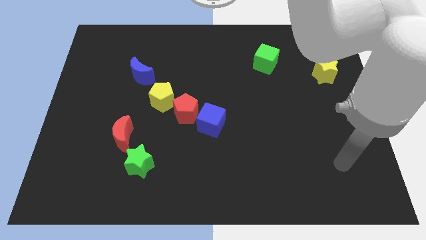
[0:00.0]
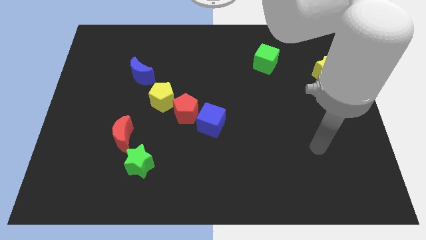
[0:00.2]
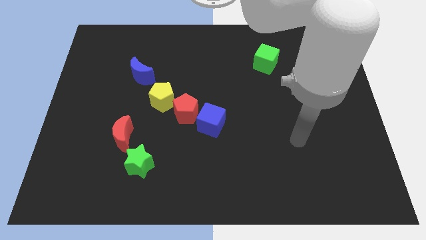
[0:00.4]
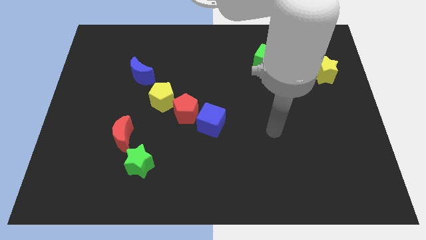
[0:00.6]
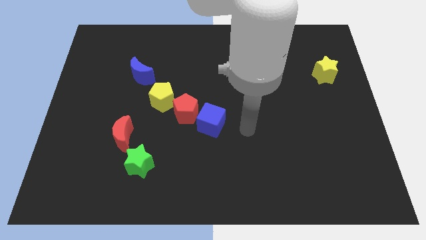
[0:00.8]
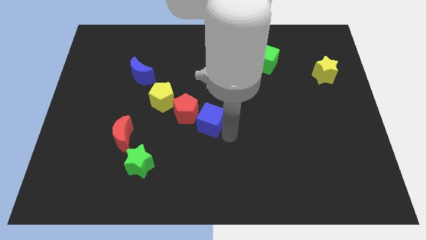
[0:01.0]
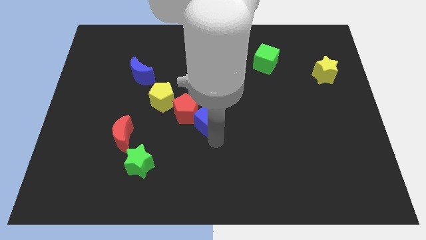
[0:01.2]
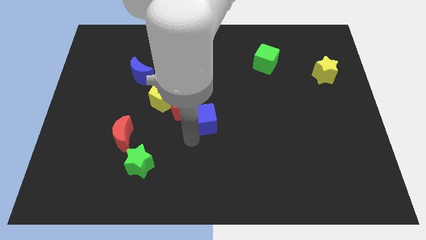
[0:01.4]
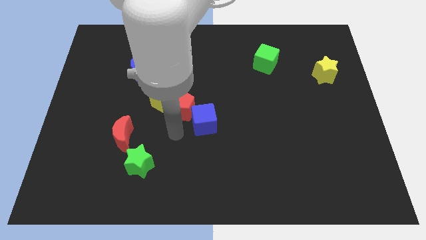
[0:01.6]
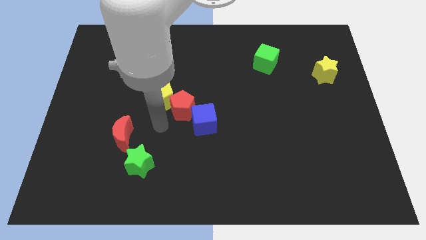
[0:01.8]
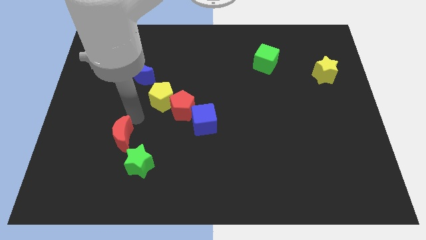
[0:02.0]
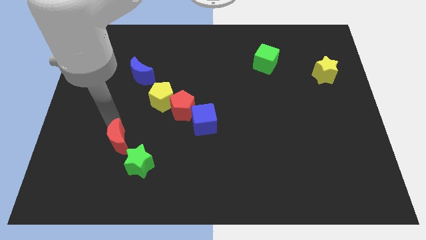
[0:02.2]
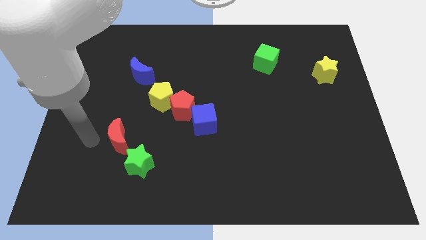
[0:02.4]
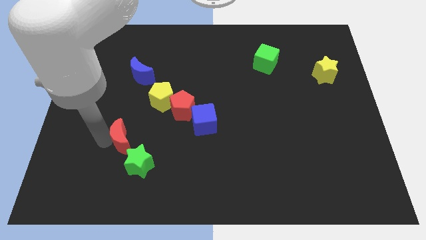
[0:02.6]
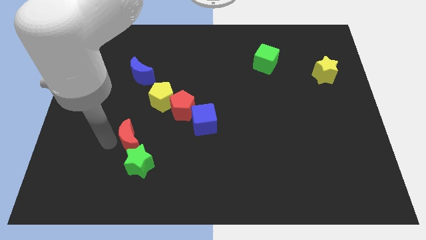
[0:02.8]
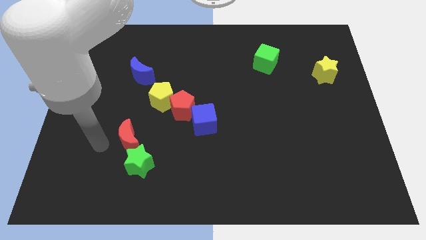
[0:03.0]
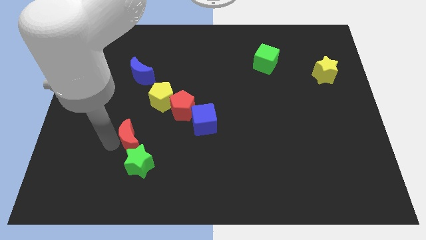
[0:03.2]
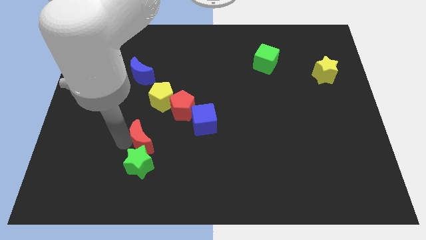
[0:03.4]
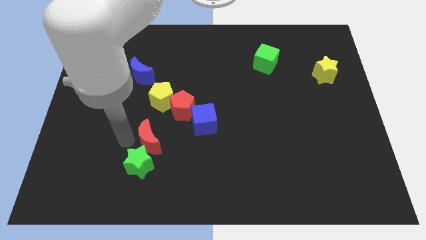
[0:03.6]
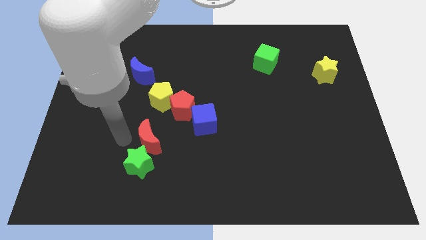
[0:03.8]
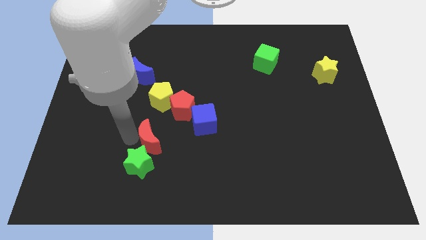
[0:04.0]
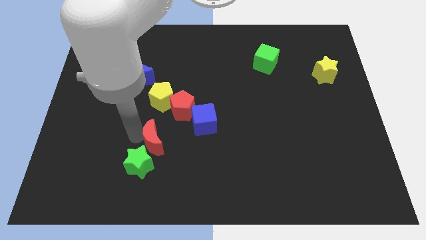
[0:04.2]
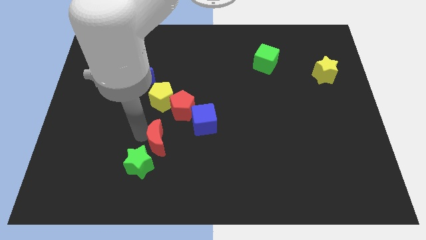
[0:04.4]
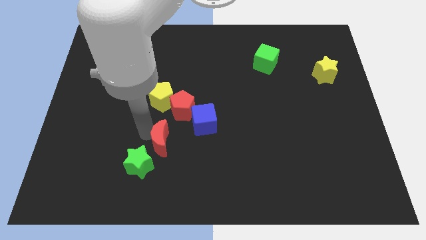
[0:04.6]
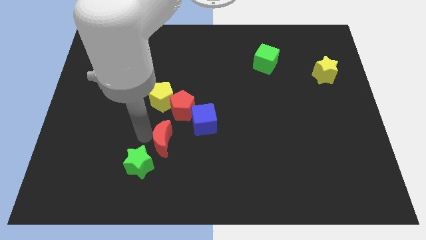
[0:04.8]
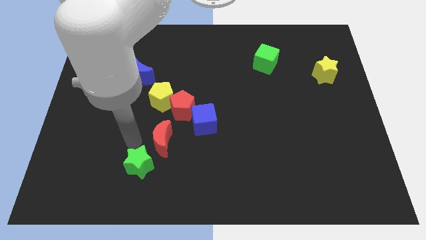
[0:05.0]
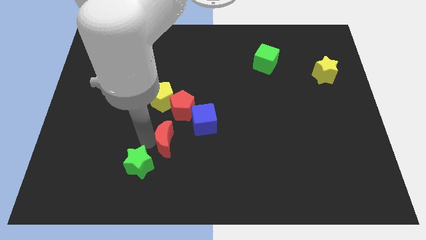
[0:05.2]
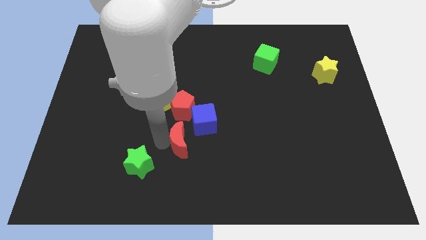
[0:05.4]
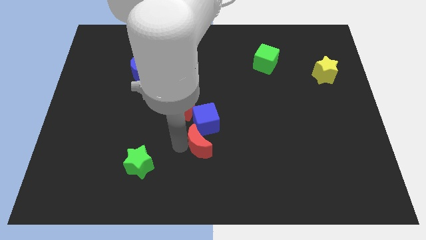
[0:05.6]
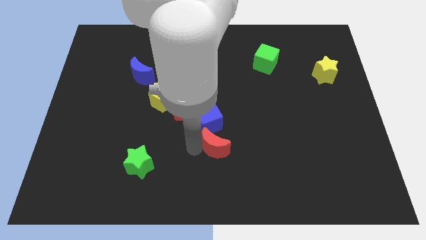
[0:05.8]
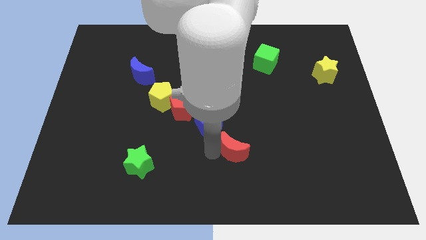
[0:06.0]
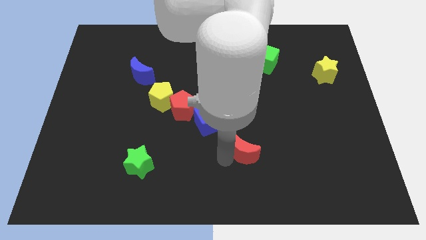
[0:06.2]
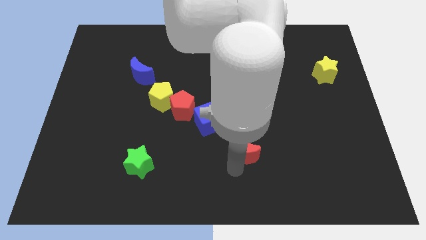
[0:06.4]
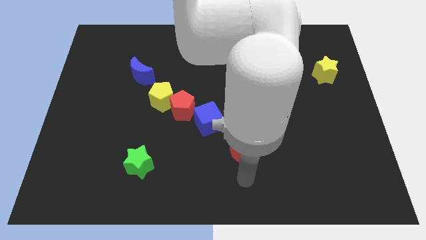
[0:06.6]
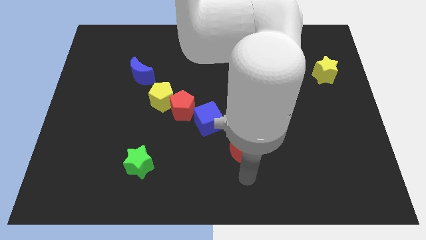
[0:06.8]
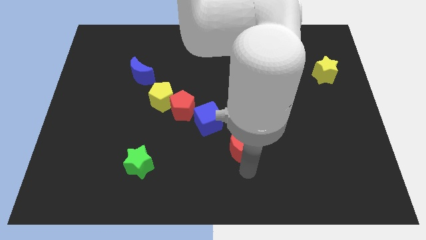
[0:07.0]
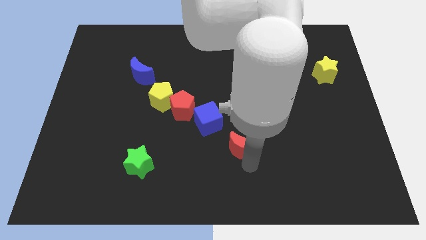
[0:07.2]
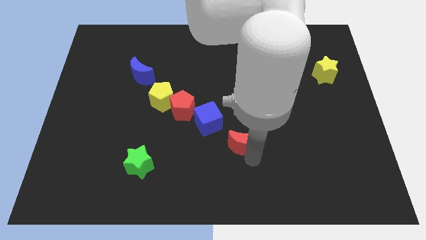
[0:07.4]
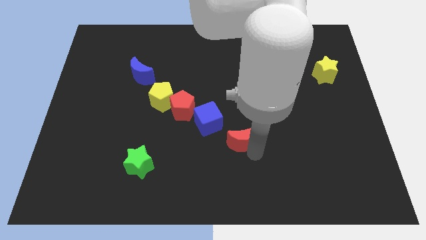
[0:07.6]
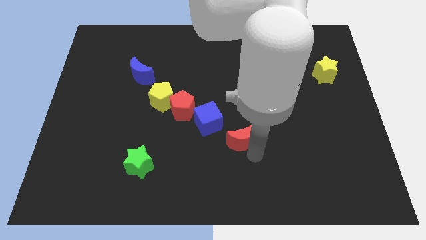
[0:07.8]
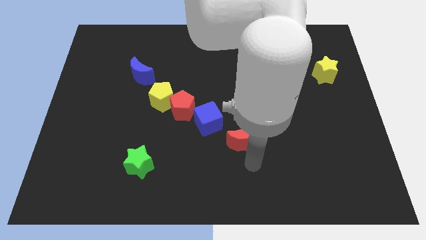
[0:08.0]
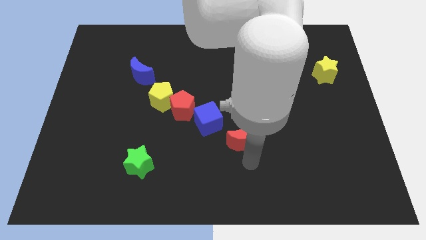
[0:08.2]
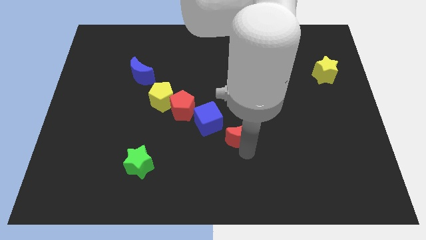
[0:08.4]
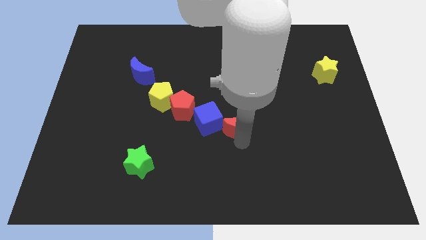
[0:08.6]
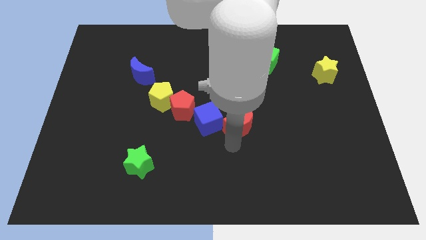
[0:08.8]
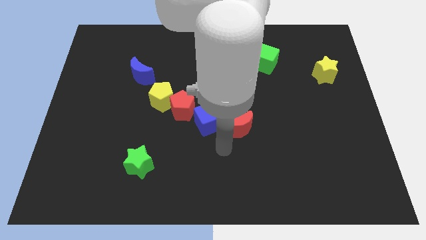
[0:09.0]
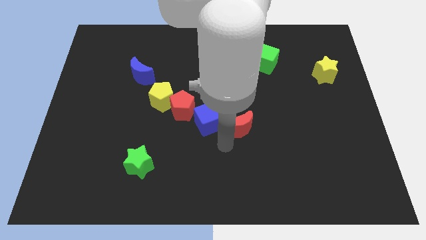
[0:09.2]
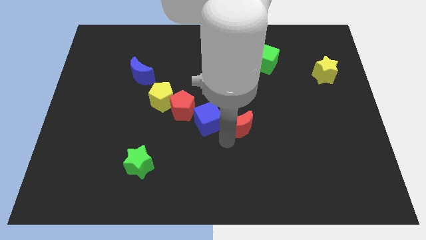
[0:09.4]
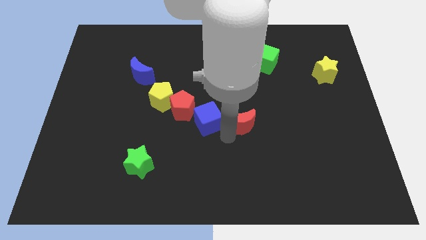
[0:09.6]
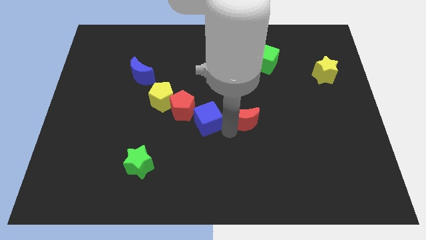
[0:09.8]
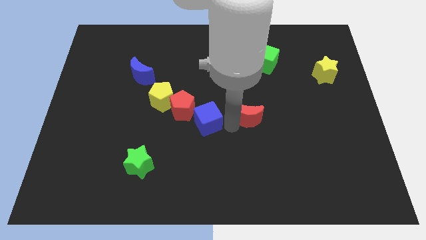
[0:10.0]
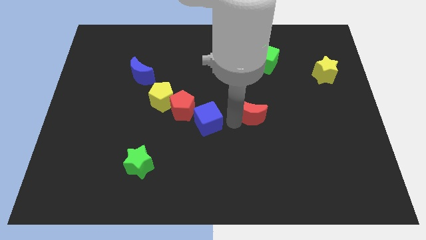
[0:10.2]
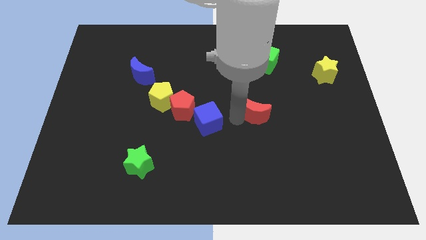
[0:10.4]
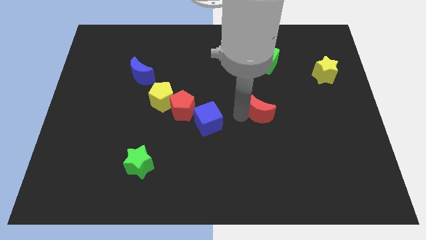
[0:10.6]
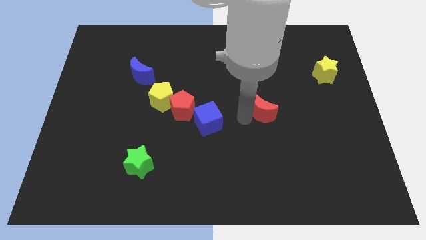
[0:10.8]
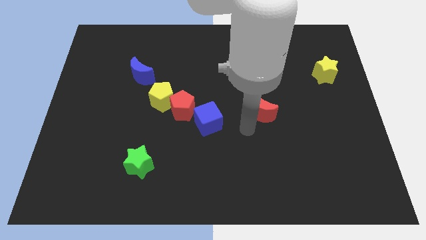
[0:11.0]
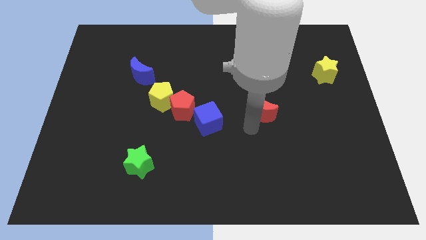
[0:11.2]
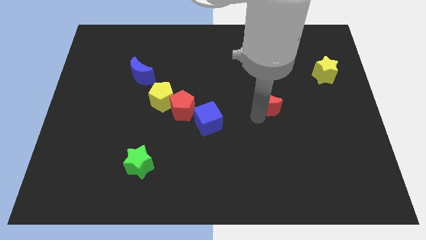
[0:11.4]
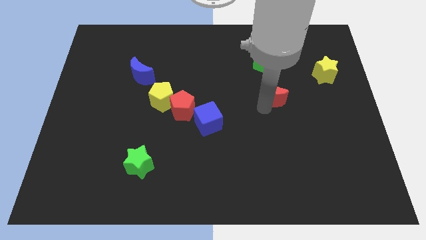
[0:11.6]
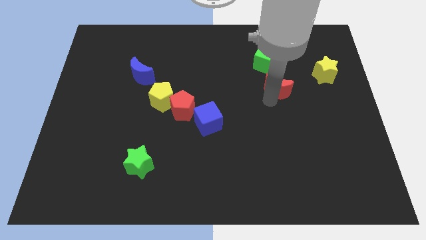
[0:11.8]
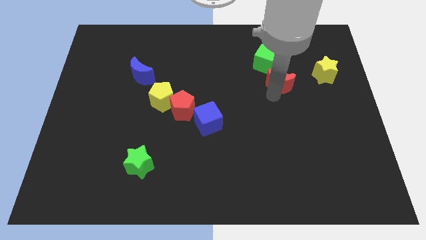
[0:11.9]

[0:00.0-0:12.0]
slide the red moon to the left of the yellow star

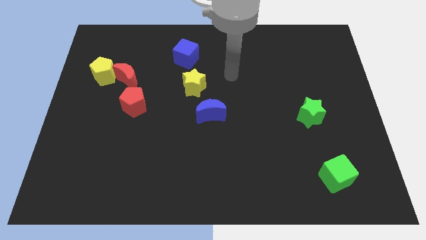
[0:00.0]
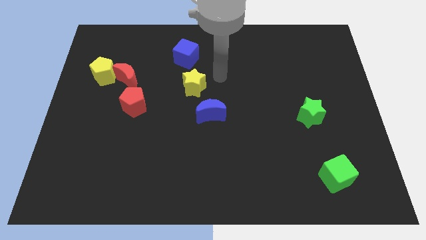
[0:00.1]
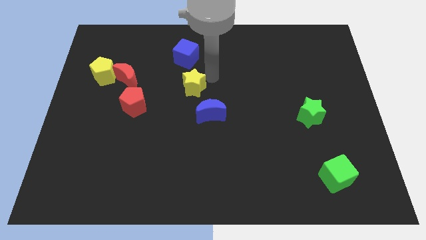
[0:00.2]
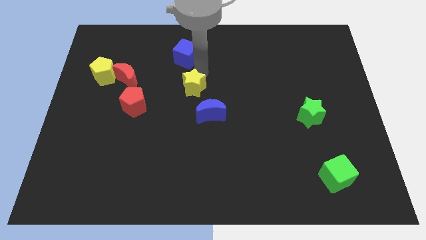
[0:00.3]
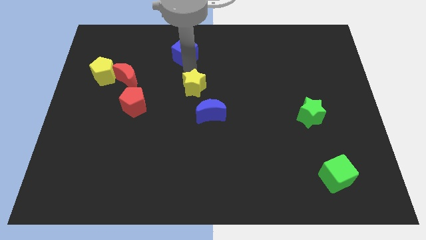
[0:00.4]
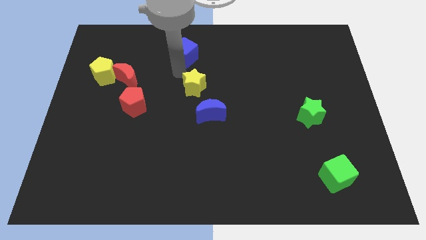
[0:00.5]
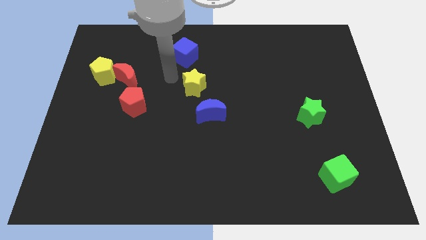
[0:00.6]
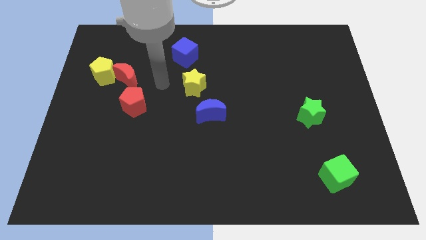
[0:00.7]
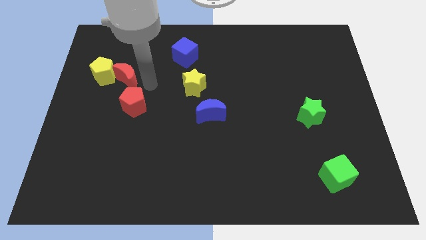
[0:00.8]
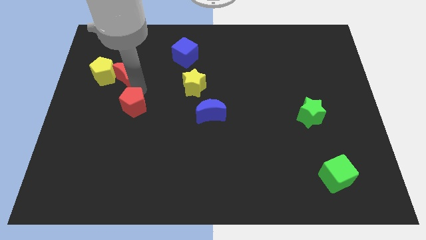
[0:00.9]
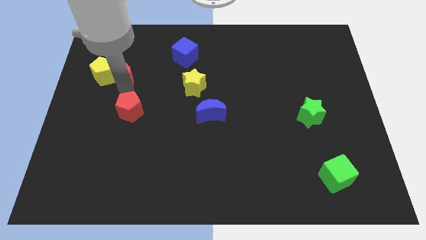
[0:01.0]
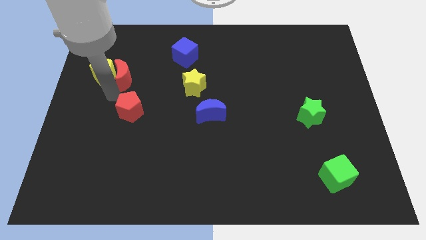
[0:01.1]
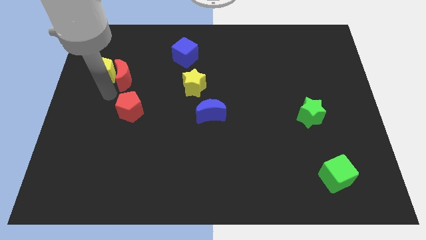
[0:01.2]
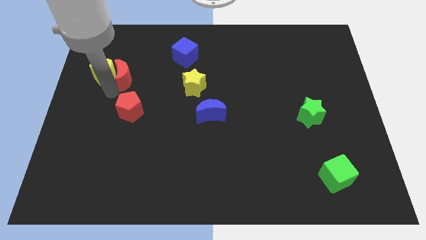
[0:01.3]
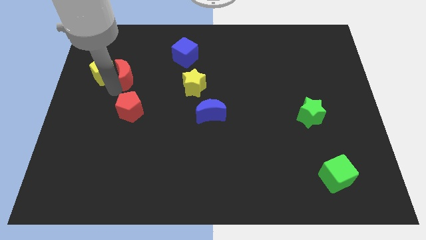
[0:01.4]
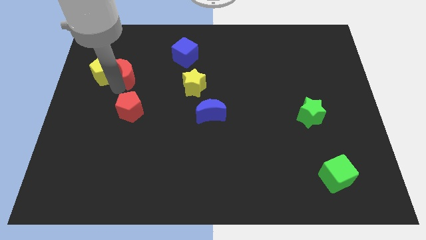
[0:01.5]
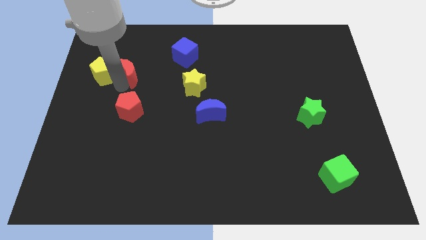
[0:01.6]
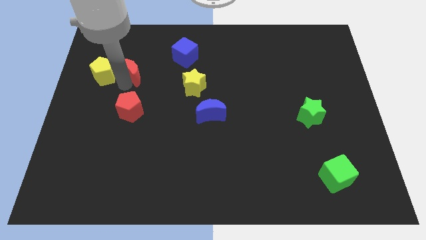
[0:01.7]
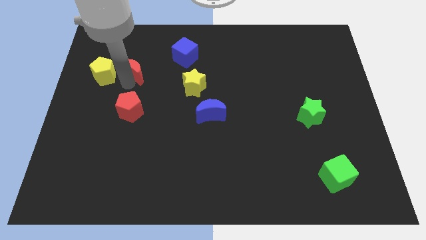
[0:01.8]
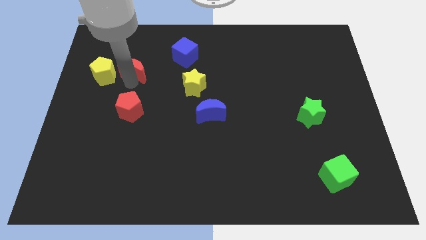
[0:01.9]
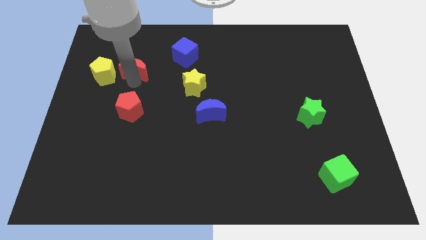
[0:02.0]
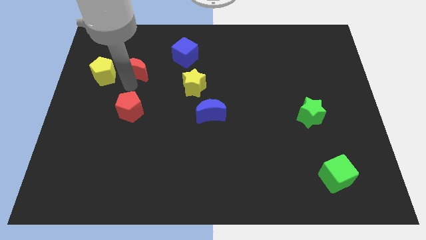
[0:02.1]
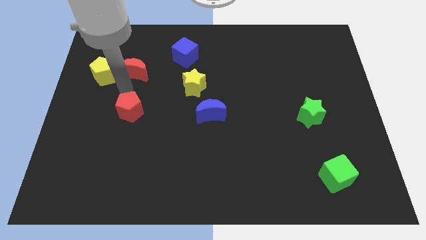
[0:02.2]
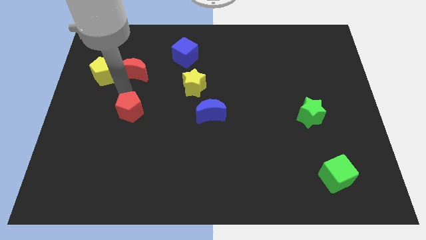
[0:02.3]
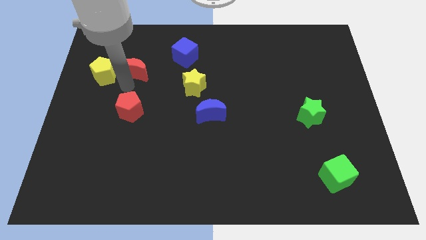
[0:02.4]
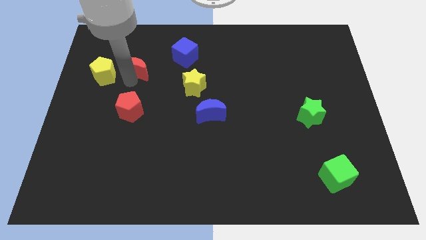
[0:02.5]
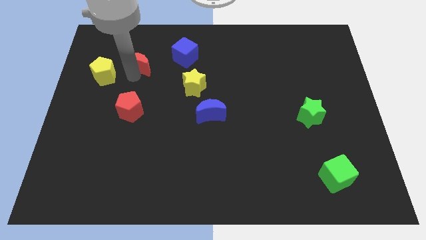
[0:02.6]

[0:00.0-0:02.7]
push the red moon to the left side of the blue cube
